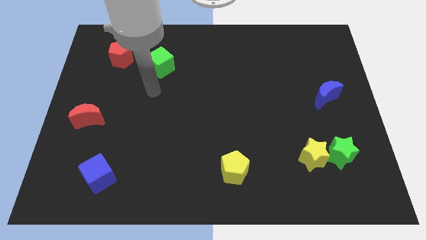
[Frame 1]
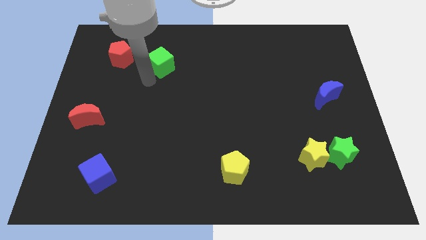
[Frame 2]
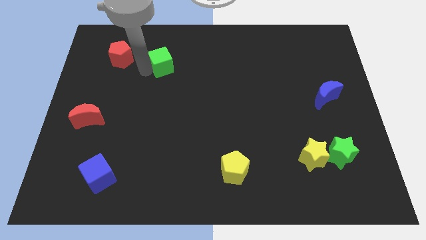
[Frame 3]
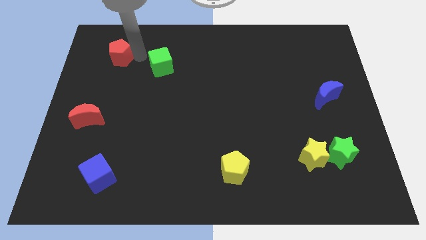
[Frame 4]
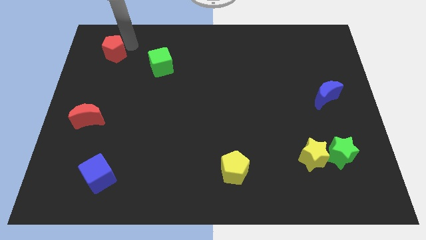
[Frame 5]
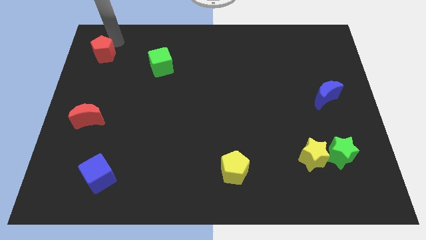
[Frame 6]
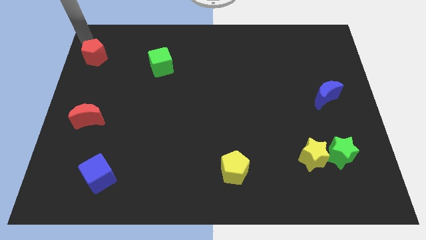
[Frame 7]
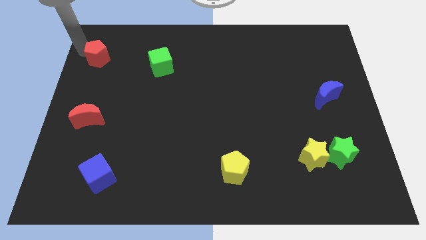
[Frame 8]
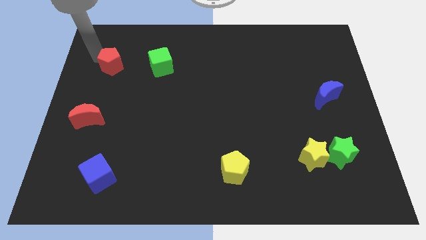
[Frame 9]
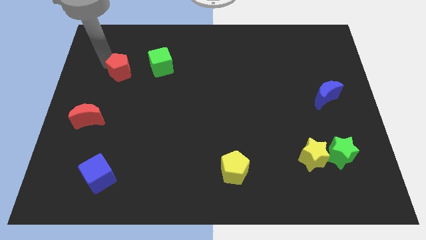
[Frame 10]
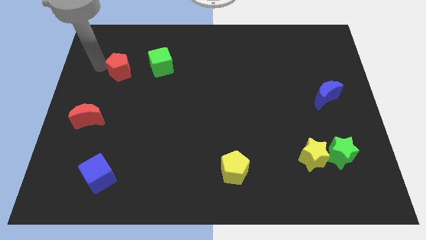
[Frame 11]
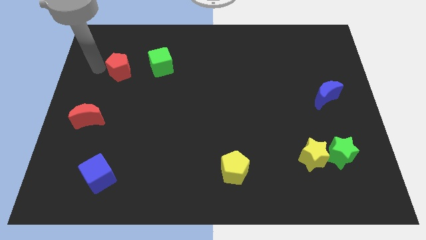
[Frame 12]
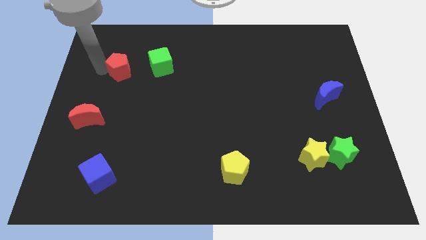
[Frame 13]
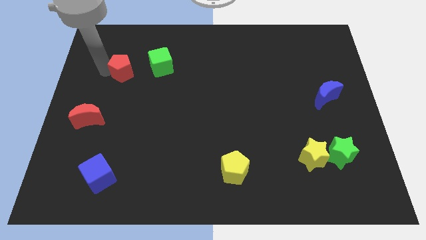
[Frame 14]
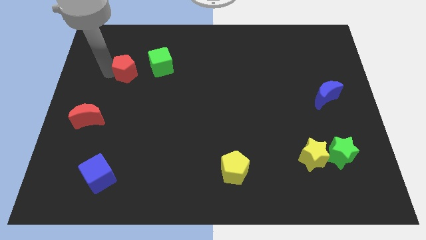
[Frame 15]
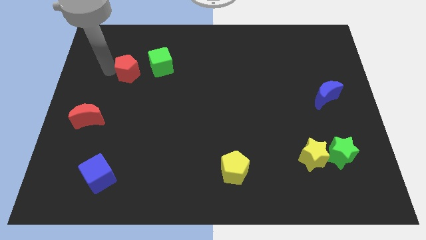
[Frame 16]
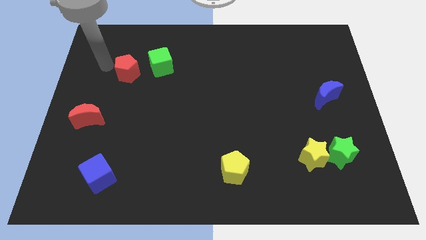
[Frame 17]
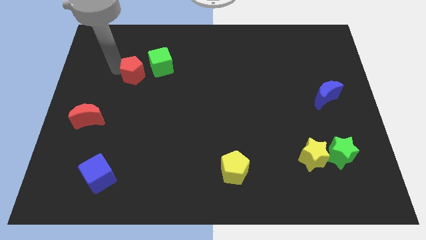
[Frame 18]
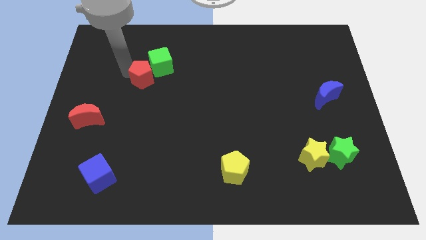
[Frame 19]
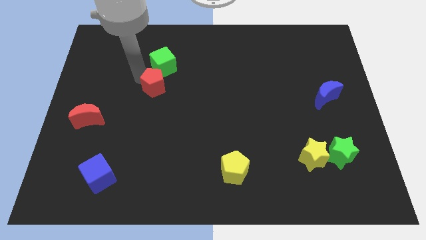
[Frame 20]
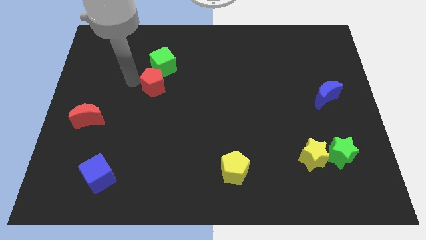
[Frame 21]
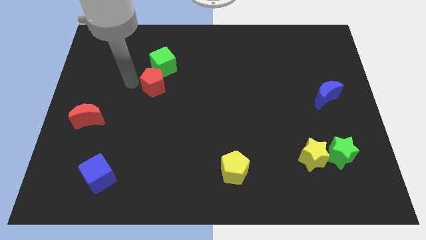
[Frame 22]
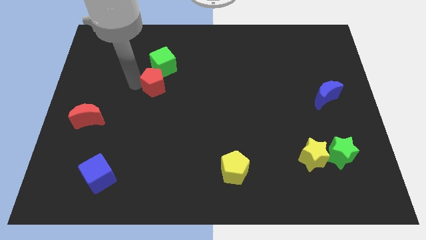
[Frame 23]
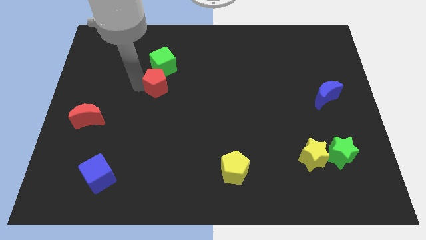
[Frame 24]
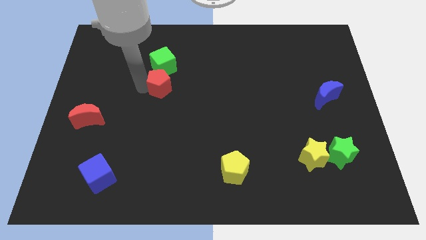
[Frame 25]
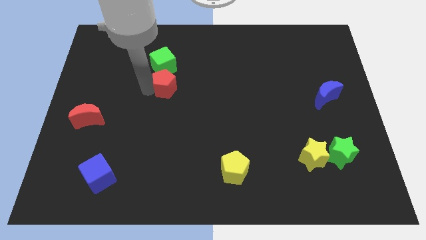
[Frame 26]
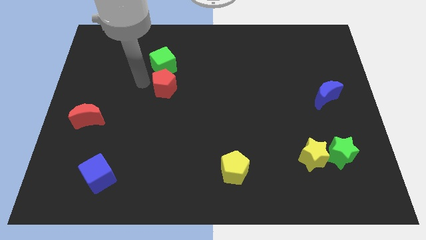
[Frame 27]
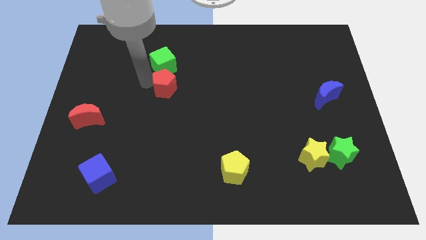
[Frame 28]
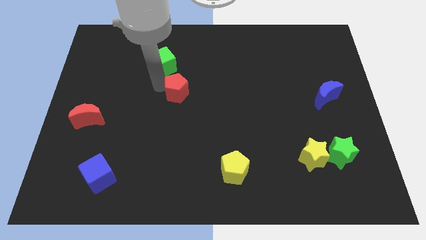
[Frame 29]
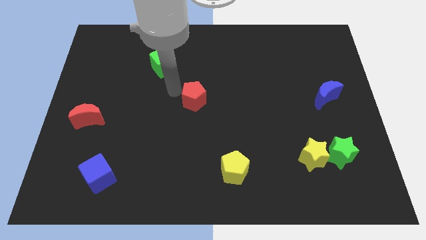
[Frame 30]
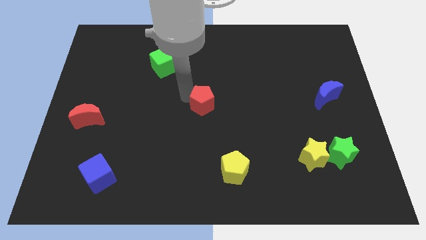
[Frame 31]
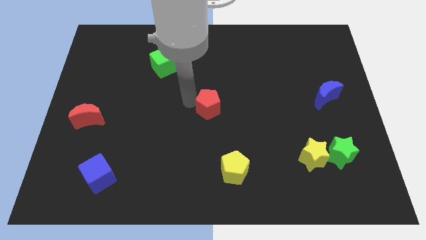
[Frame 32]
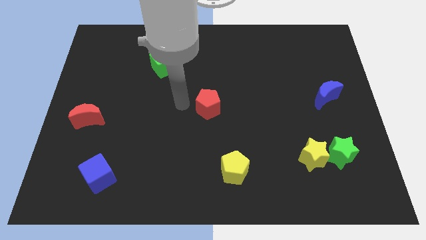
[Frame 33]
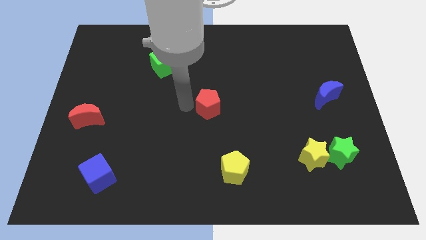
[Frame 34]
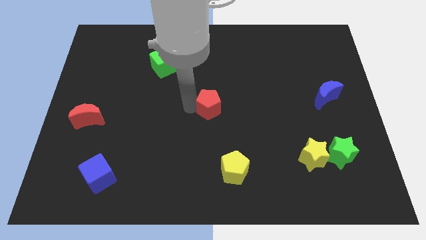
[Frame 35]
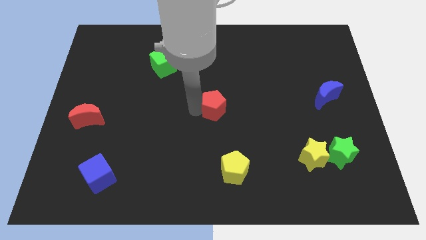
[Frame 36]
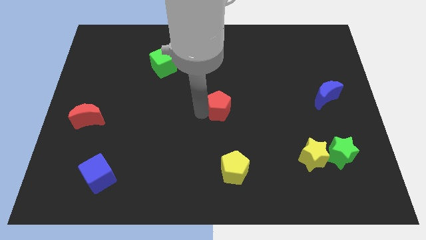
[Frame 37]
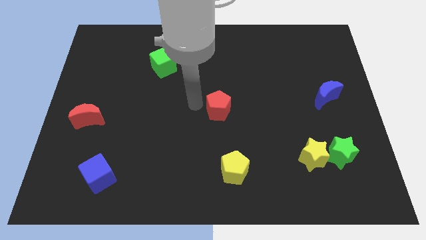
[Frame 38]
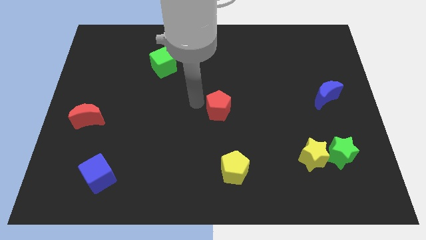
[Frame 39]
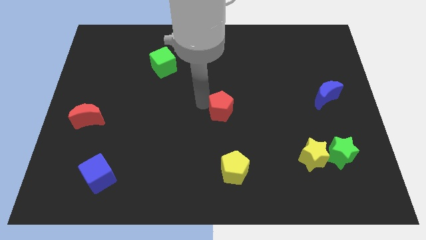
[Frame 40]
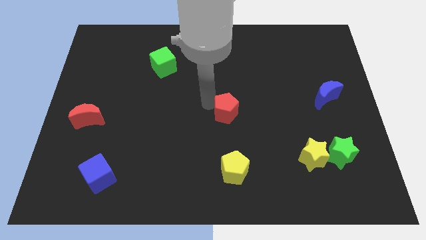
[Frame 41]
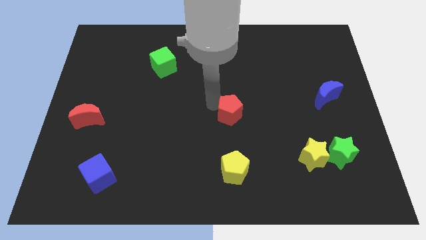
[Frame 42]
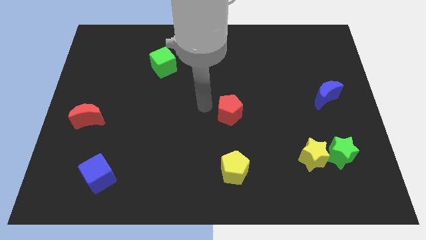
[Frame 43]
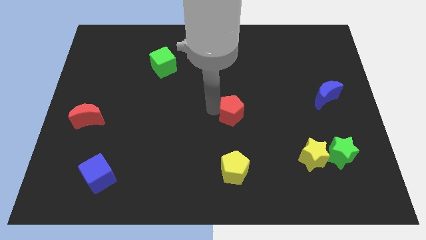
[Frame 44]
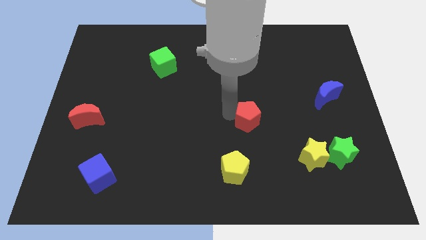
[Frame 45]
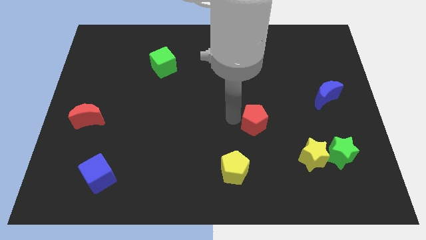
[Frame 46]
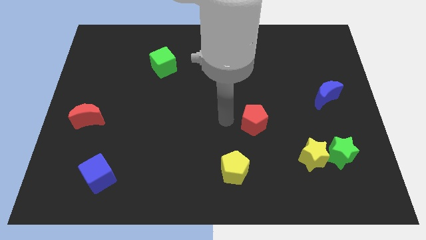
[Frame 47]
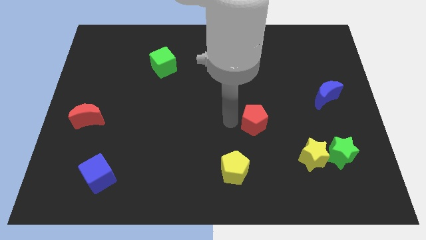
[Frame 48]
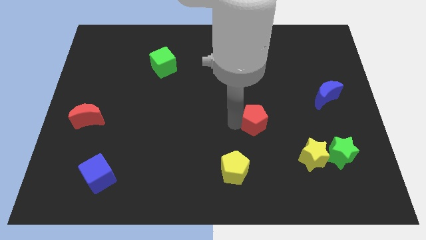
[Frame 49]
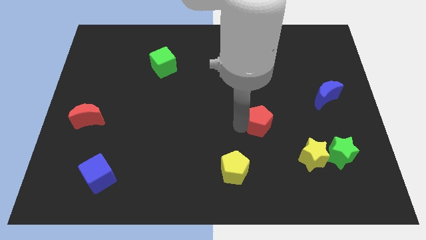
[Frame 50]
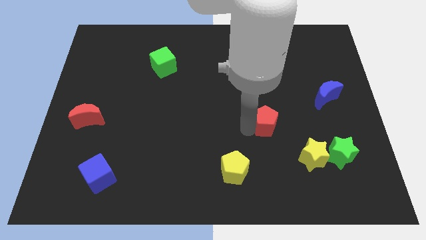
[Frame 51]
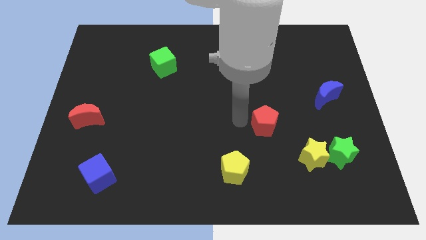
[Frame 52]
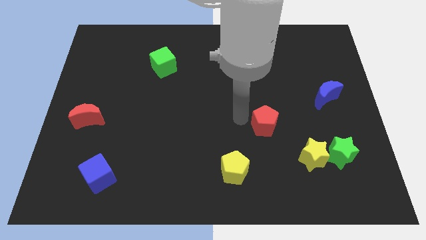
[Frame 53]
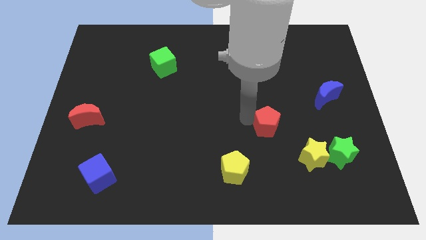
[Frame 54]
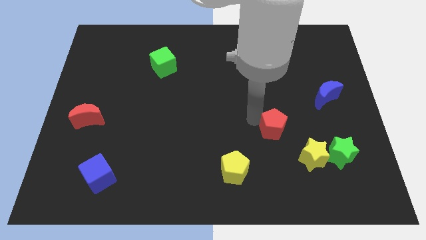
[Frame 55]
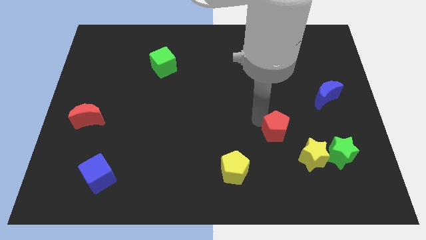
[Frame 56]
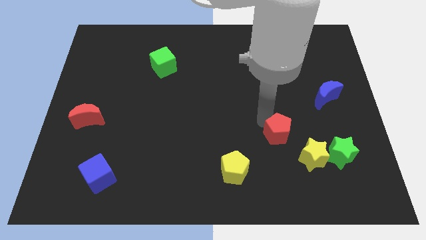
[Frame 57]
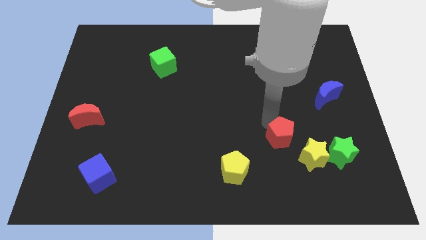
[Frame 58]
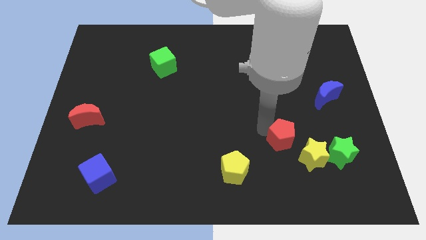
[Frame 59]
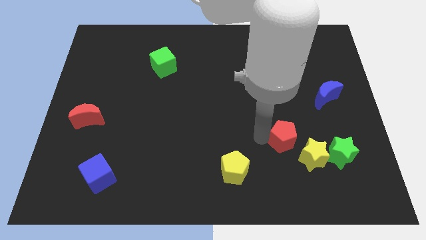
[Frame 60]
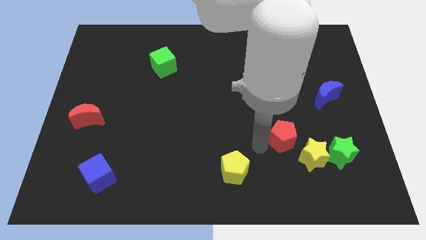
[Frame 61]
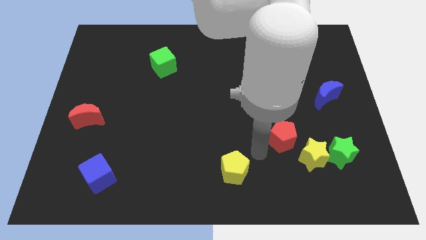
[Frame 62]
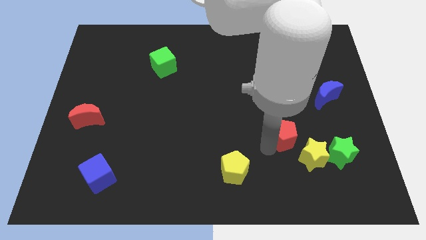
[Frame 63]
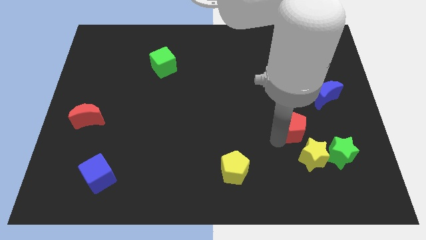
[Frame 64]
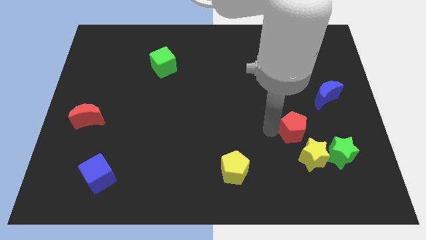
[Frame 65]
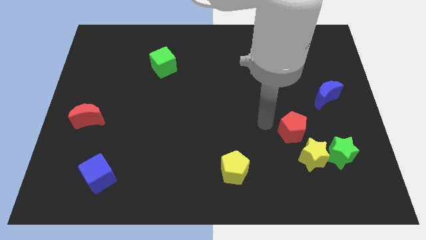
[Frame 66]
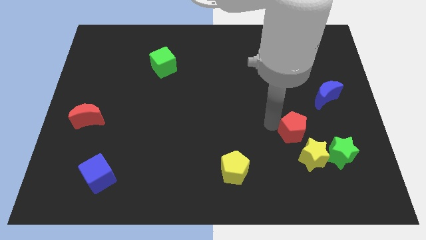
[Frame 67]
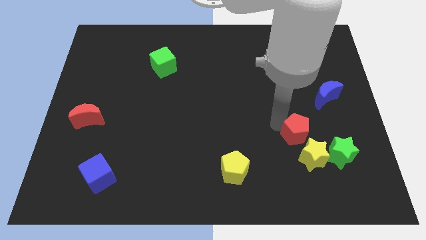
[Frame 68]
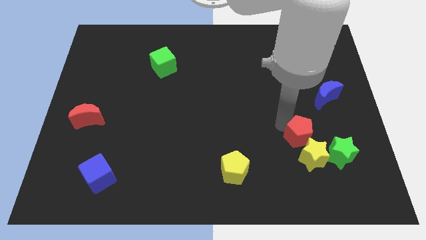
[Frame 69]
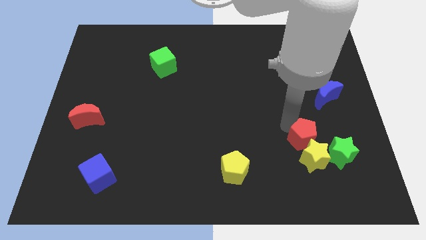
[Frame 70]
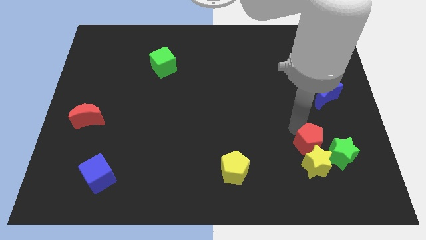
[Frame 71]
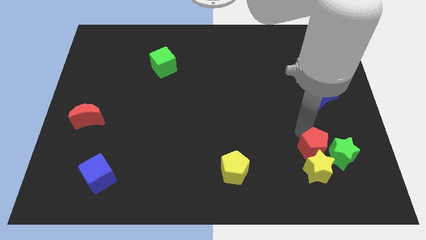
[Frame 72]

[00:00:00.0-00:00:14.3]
move the red pentagon close to the green star

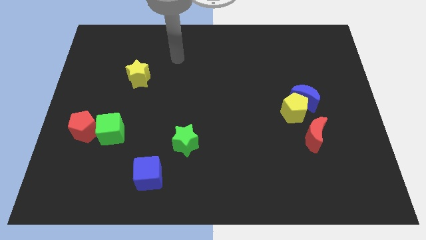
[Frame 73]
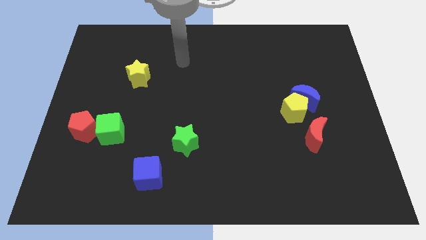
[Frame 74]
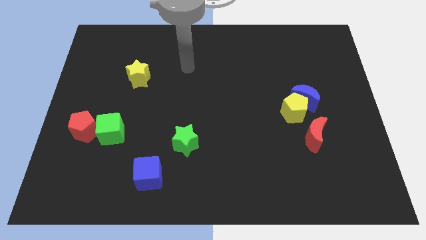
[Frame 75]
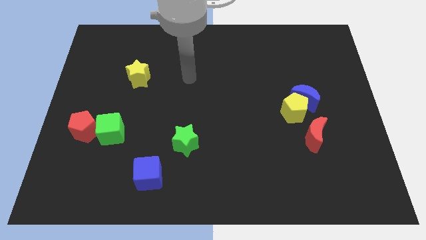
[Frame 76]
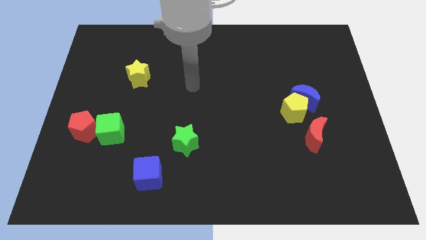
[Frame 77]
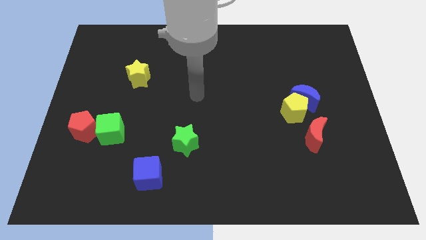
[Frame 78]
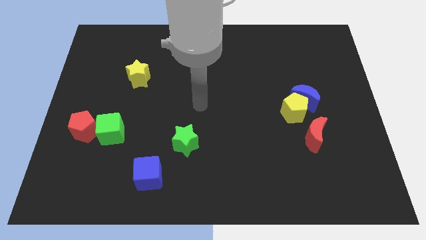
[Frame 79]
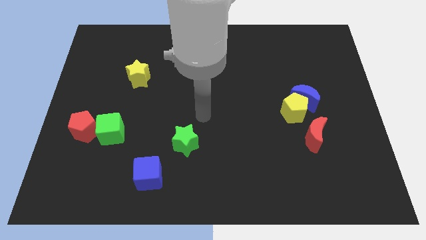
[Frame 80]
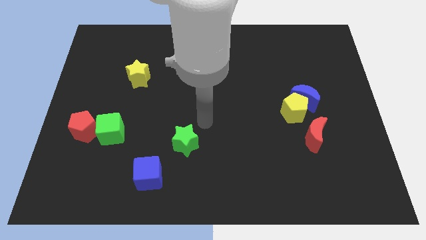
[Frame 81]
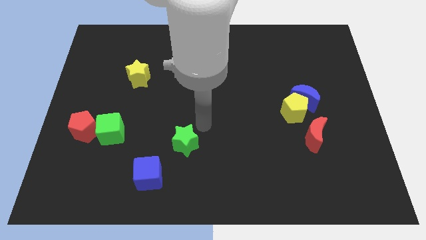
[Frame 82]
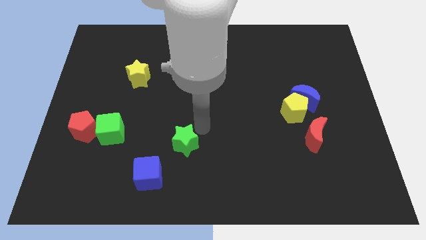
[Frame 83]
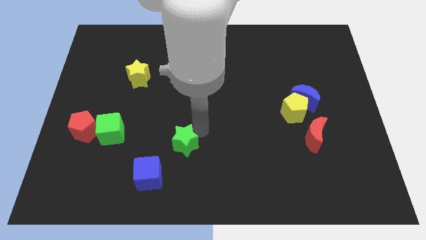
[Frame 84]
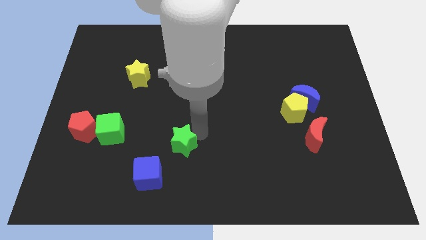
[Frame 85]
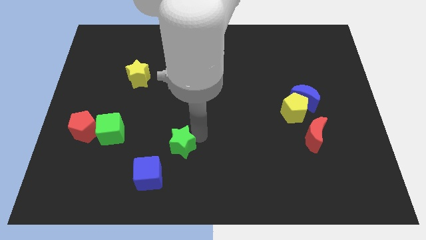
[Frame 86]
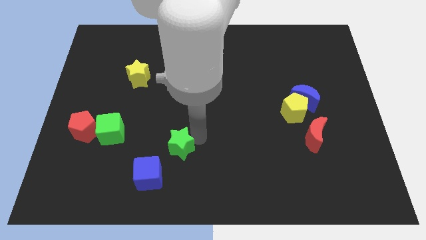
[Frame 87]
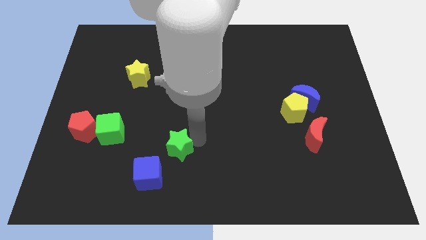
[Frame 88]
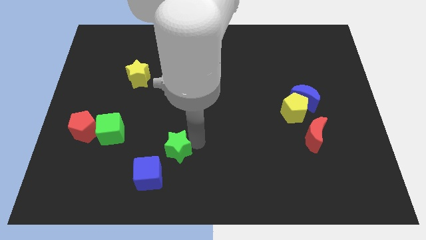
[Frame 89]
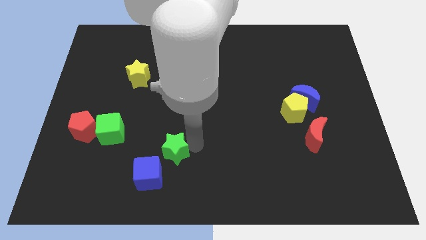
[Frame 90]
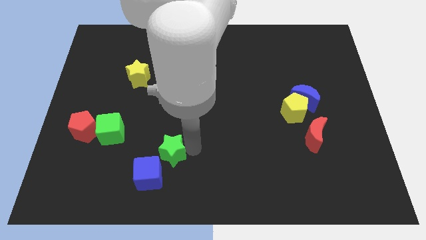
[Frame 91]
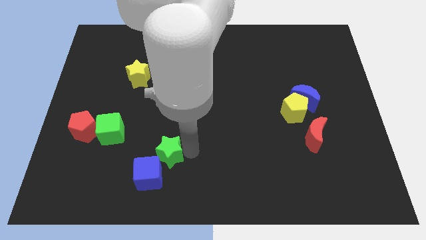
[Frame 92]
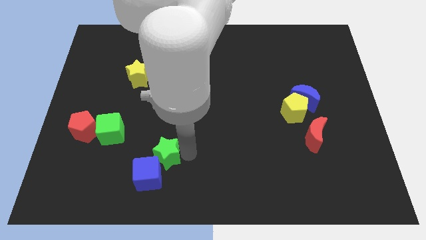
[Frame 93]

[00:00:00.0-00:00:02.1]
move the green star close to the blue cube
